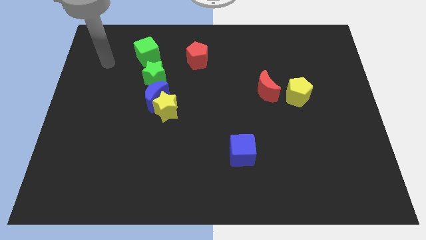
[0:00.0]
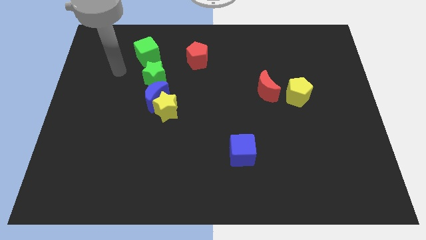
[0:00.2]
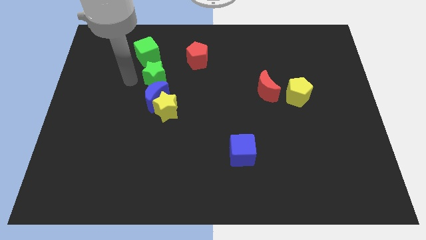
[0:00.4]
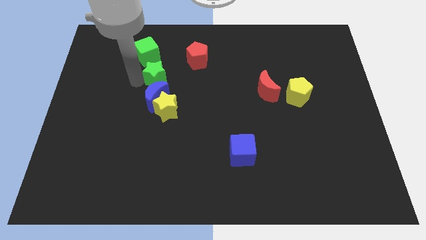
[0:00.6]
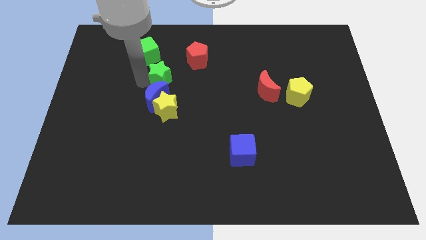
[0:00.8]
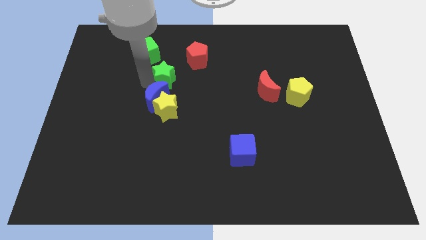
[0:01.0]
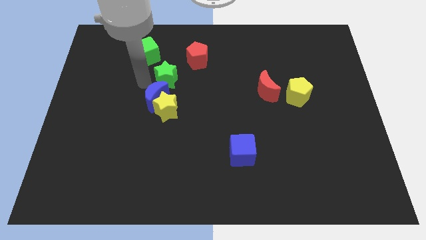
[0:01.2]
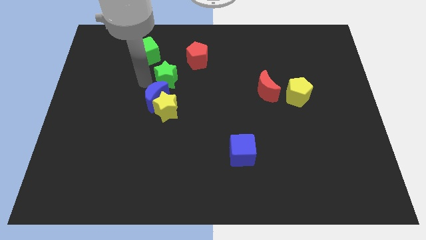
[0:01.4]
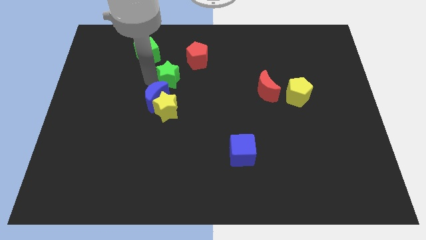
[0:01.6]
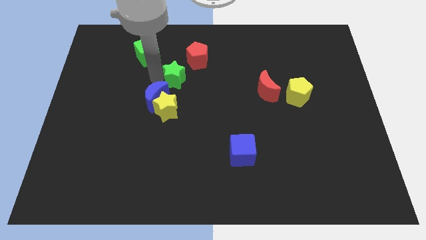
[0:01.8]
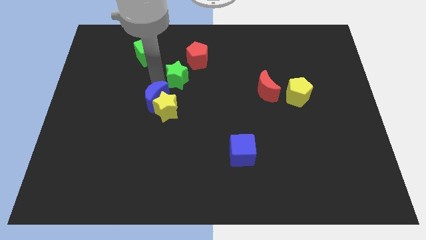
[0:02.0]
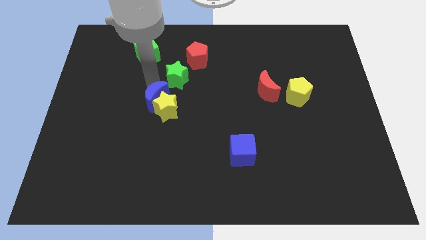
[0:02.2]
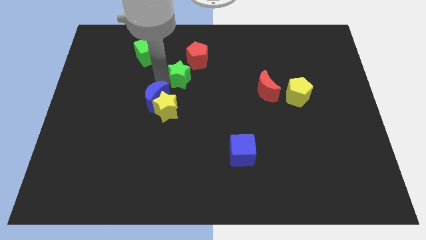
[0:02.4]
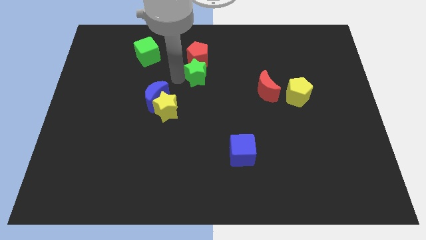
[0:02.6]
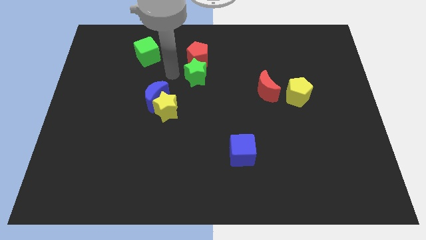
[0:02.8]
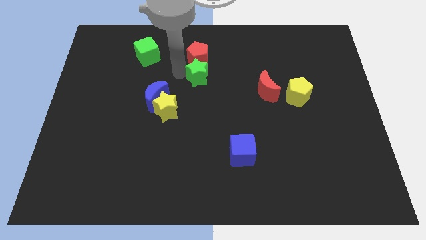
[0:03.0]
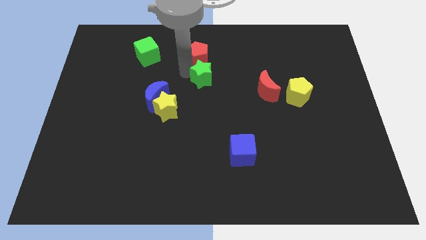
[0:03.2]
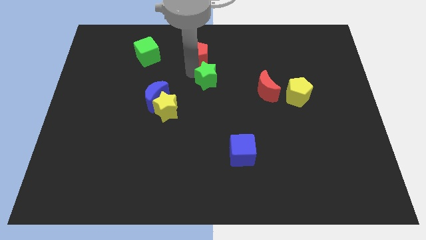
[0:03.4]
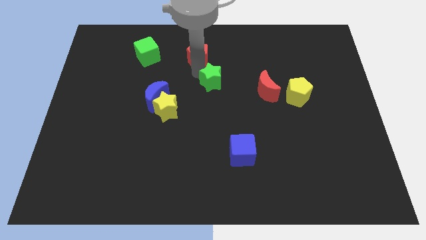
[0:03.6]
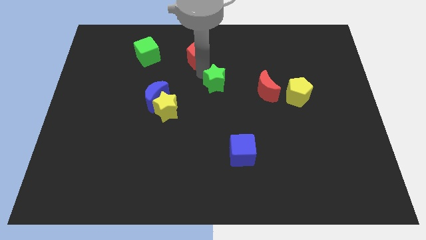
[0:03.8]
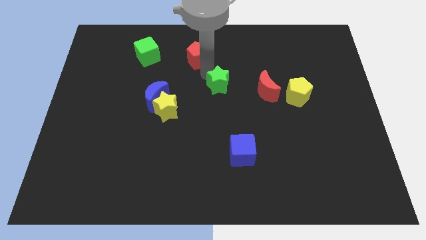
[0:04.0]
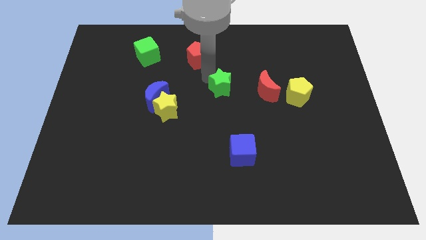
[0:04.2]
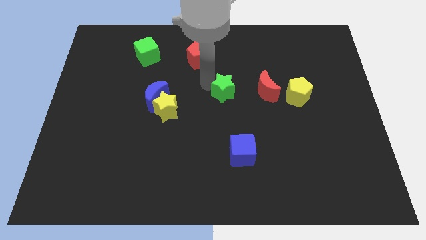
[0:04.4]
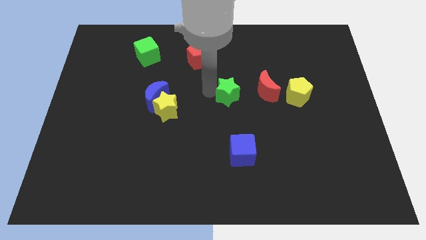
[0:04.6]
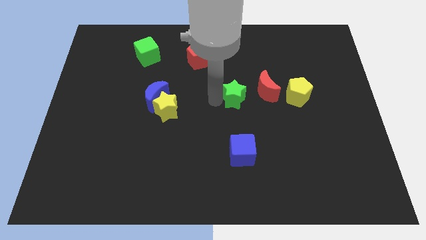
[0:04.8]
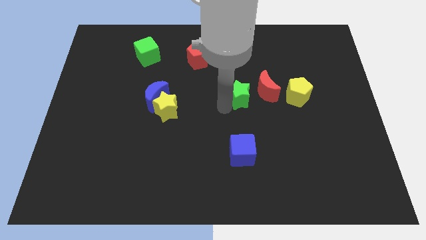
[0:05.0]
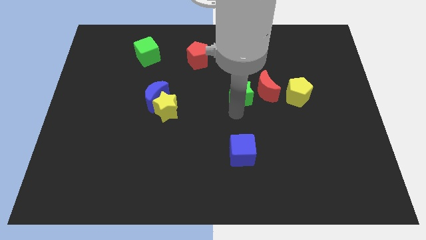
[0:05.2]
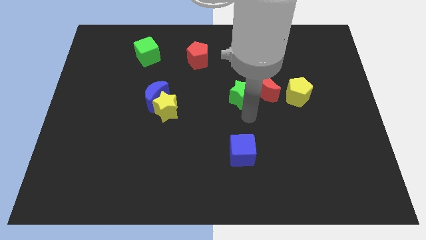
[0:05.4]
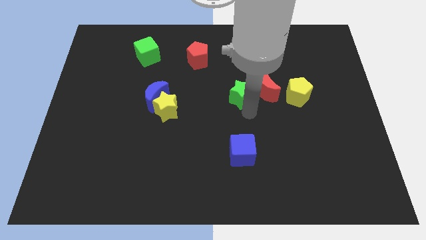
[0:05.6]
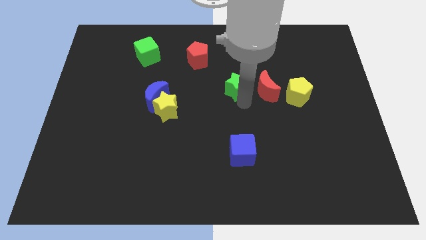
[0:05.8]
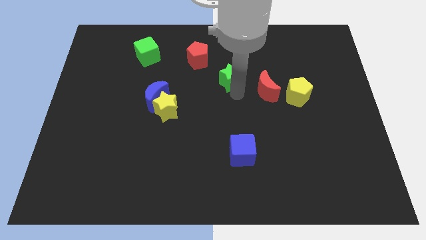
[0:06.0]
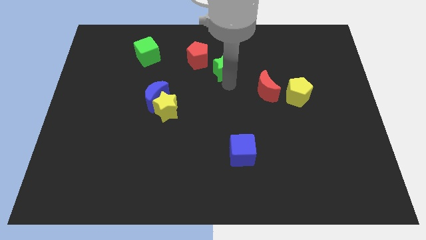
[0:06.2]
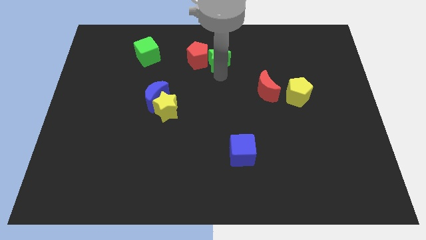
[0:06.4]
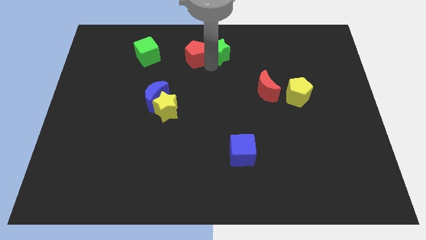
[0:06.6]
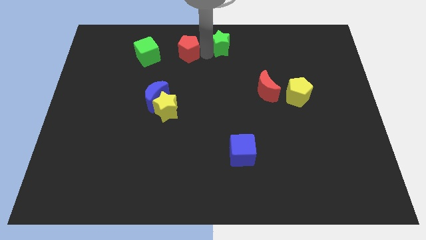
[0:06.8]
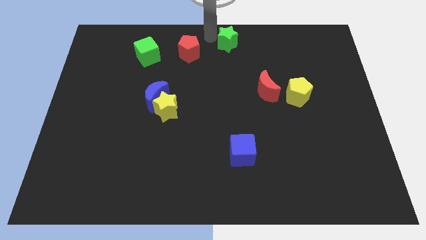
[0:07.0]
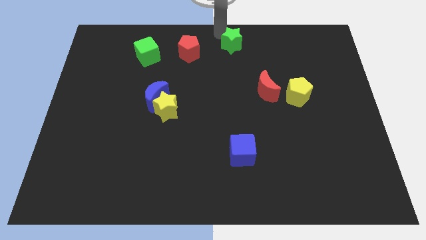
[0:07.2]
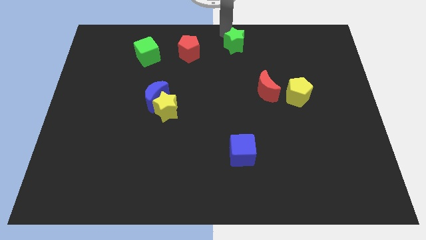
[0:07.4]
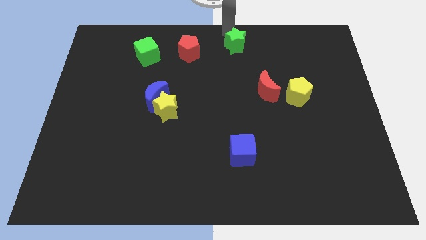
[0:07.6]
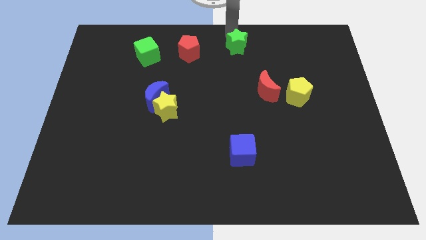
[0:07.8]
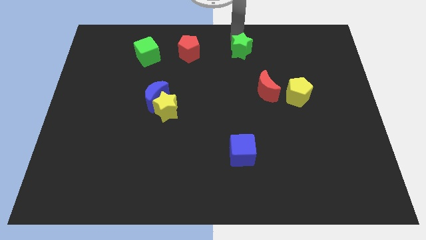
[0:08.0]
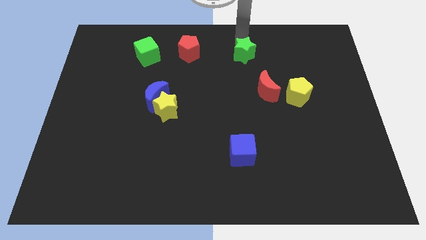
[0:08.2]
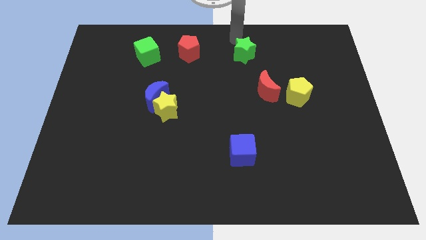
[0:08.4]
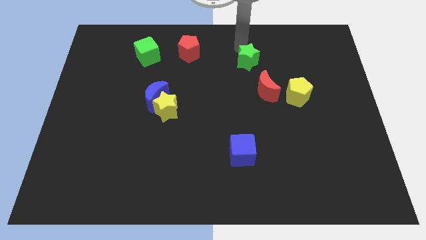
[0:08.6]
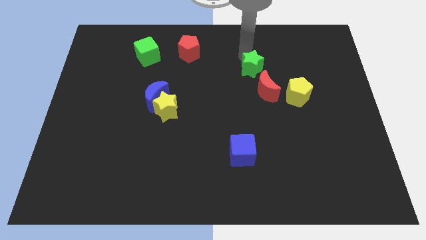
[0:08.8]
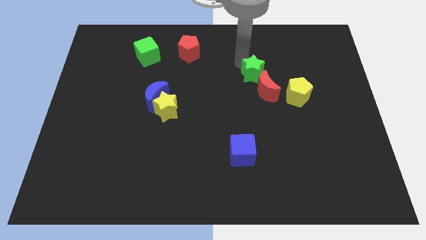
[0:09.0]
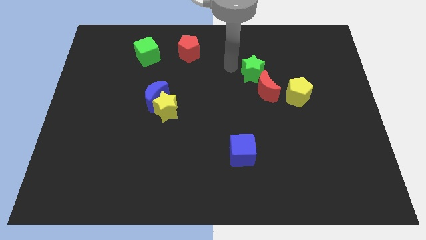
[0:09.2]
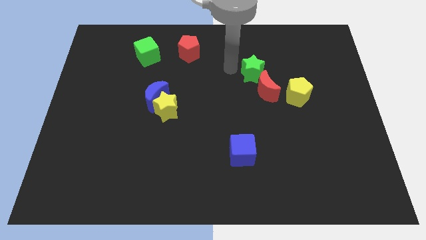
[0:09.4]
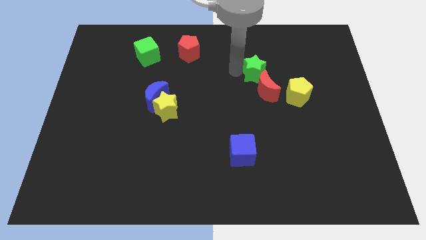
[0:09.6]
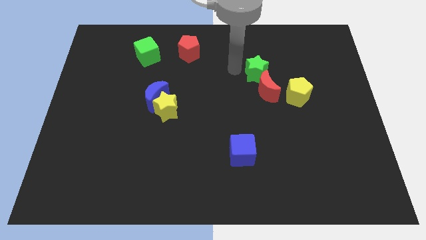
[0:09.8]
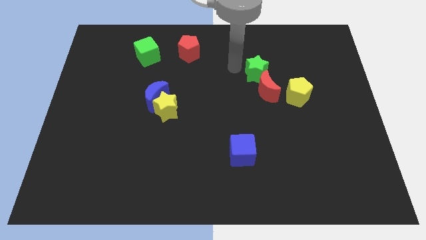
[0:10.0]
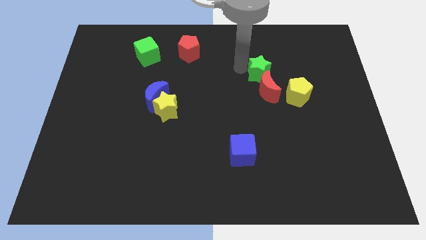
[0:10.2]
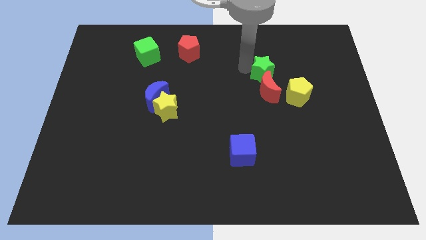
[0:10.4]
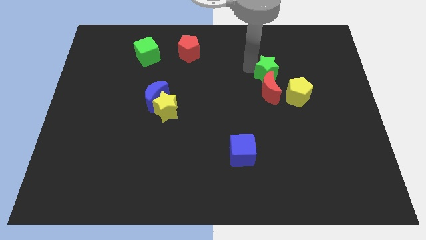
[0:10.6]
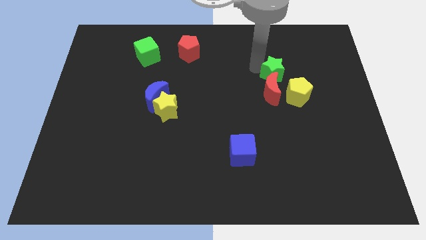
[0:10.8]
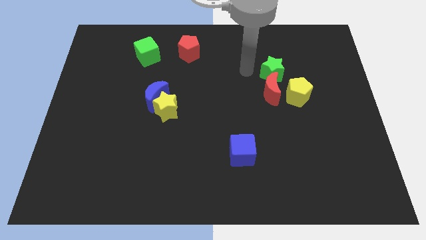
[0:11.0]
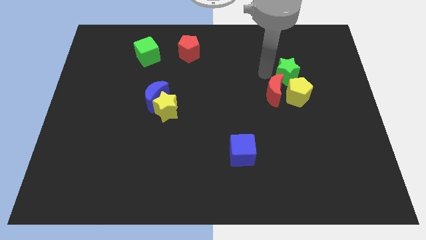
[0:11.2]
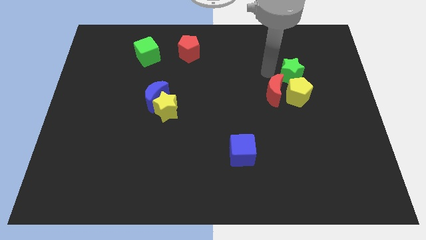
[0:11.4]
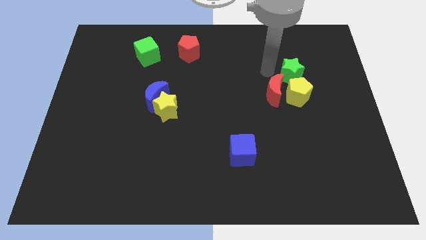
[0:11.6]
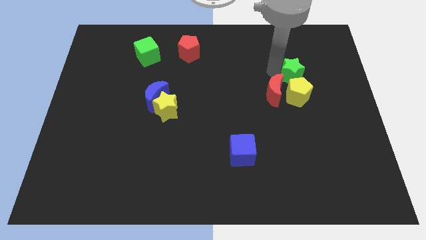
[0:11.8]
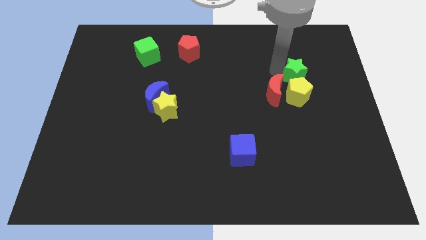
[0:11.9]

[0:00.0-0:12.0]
push the green star to the top right of the yellow pentagon

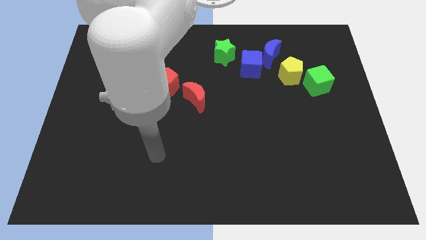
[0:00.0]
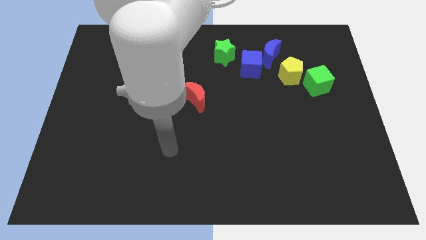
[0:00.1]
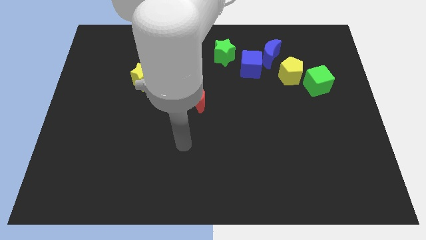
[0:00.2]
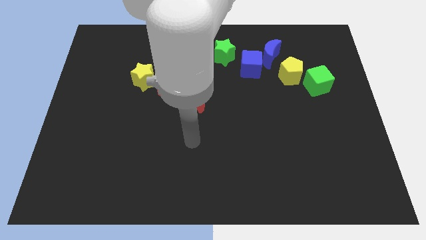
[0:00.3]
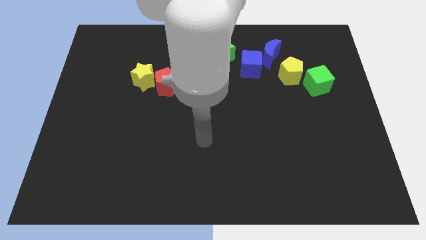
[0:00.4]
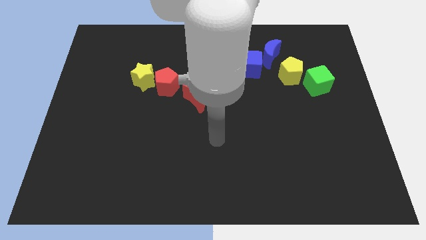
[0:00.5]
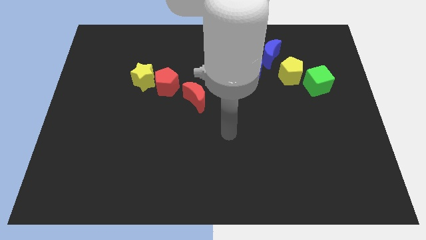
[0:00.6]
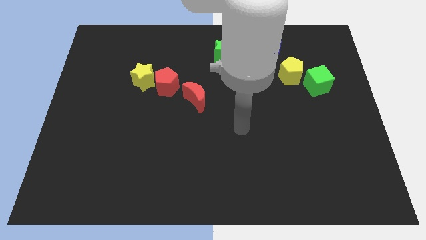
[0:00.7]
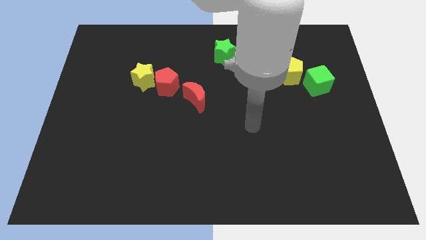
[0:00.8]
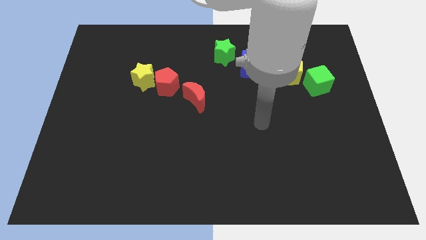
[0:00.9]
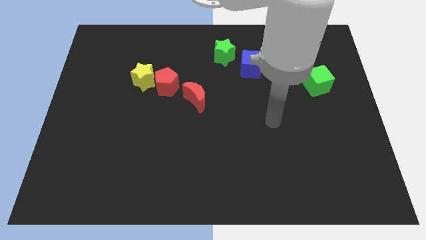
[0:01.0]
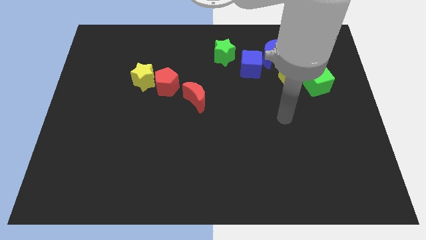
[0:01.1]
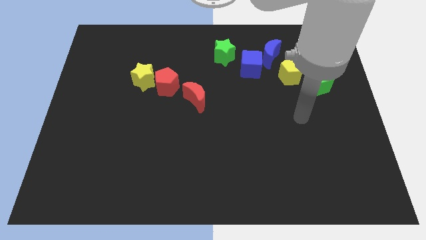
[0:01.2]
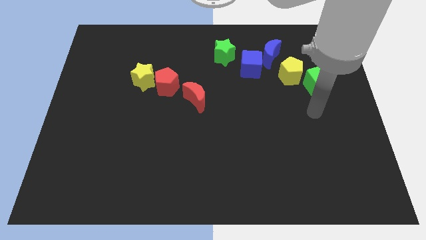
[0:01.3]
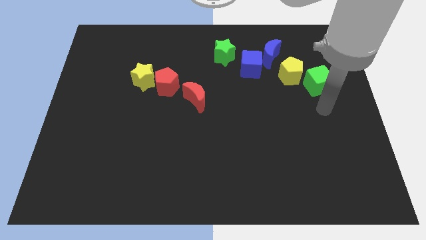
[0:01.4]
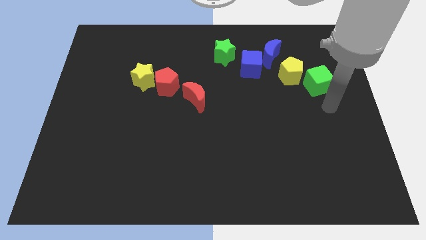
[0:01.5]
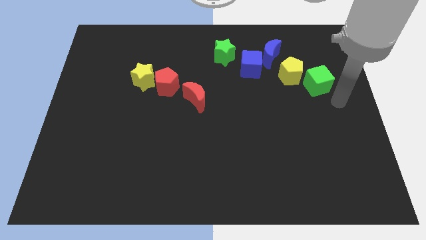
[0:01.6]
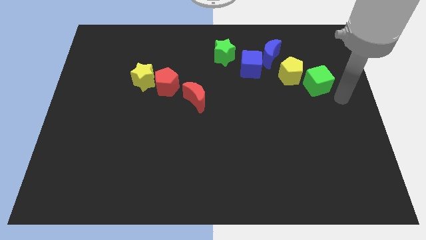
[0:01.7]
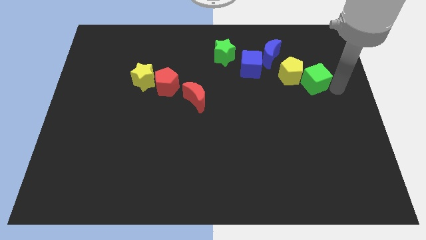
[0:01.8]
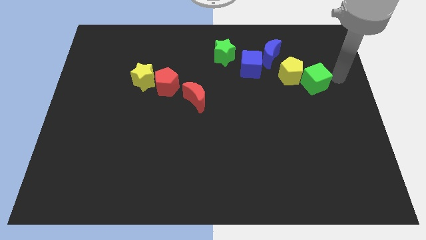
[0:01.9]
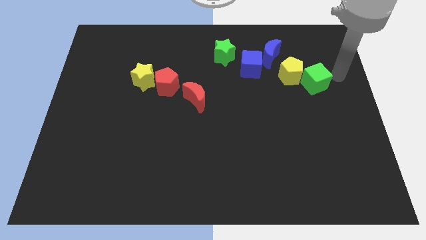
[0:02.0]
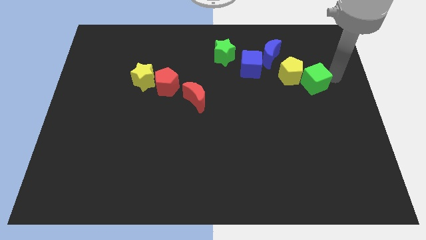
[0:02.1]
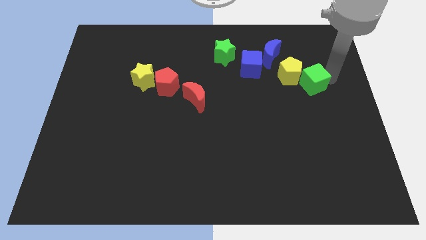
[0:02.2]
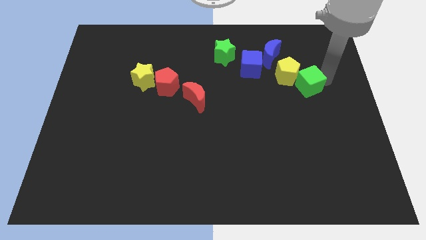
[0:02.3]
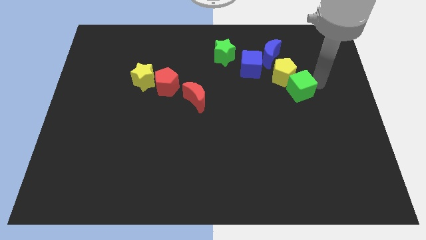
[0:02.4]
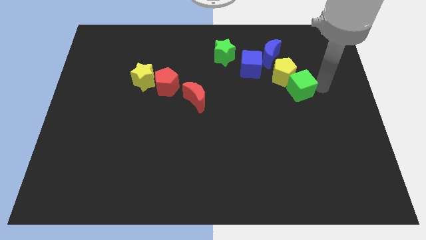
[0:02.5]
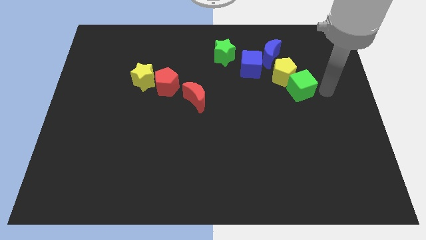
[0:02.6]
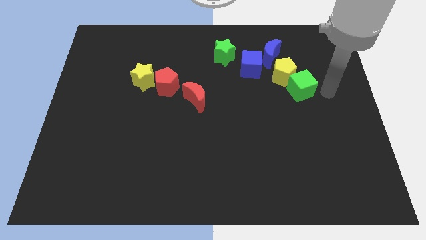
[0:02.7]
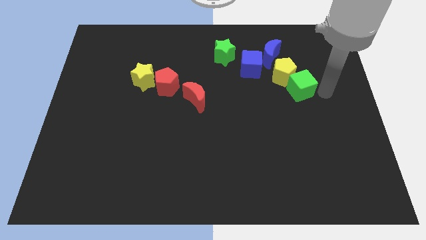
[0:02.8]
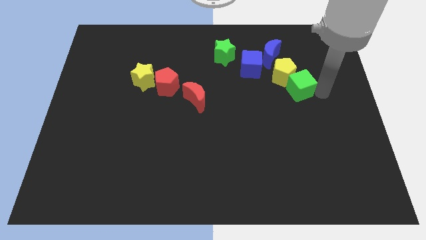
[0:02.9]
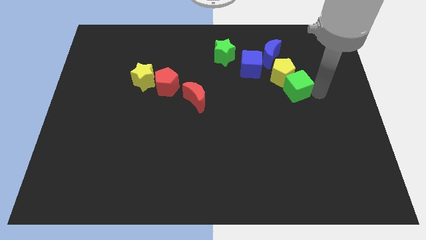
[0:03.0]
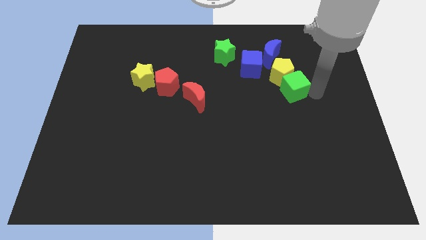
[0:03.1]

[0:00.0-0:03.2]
put the green cube to the bottom side of the blue moon
